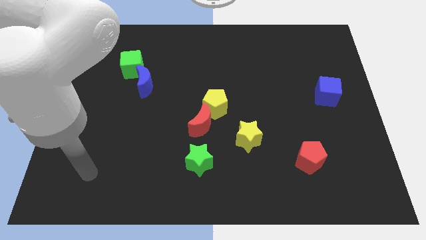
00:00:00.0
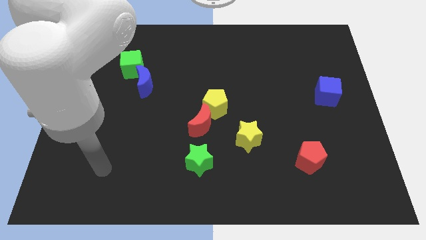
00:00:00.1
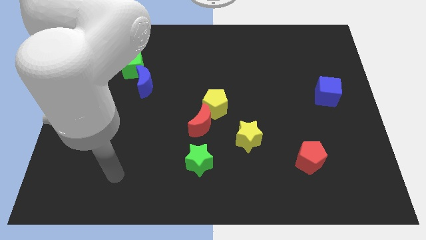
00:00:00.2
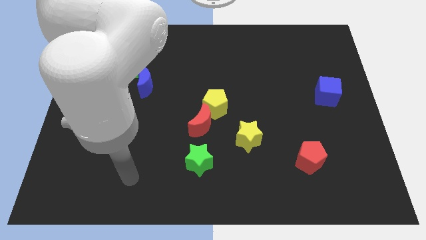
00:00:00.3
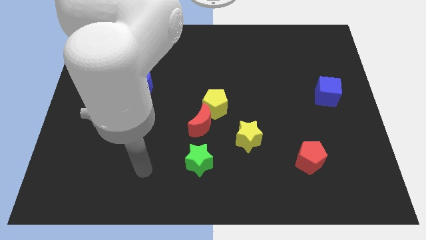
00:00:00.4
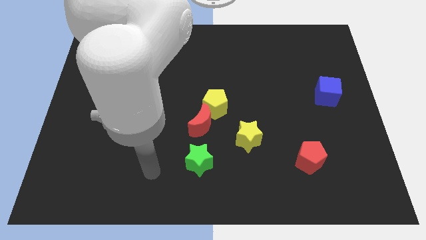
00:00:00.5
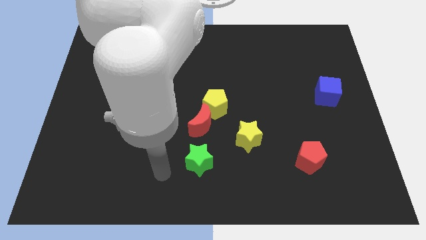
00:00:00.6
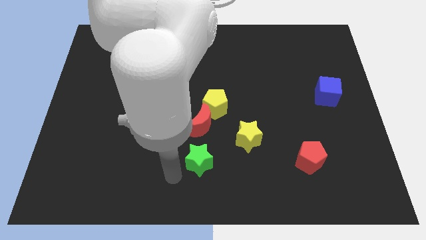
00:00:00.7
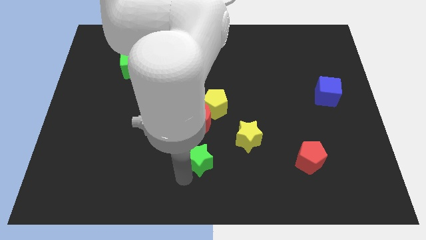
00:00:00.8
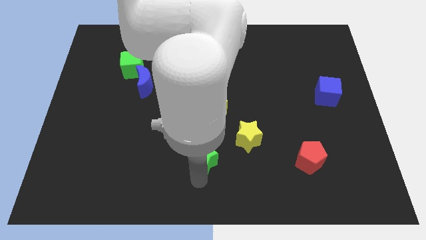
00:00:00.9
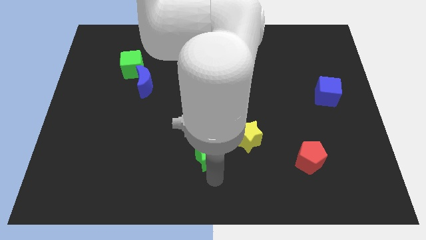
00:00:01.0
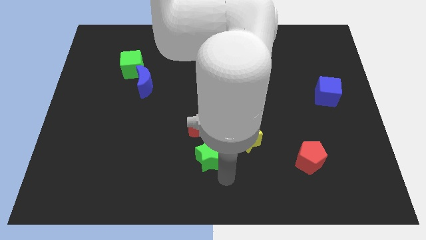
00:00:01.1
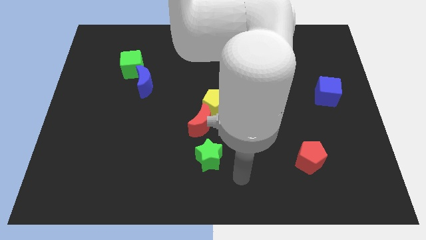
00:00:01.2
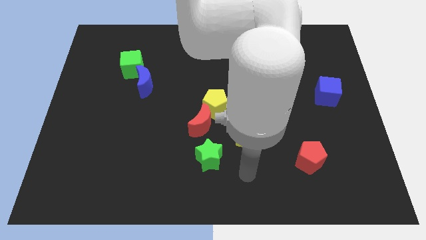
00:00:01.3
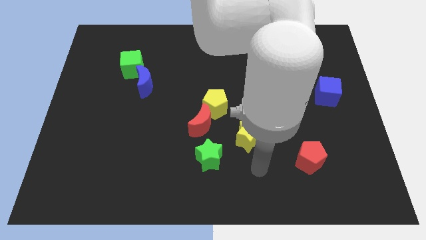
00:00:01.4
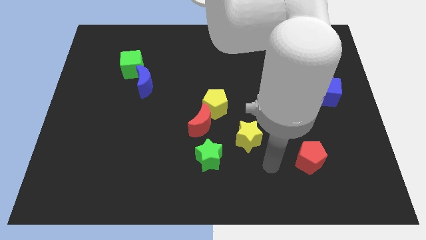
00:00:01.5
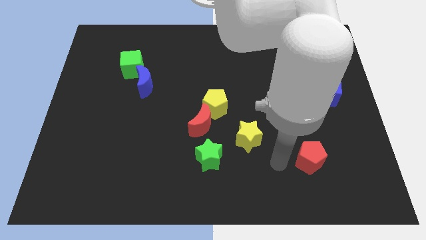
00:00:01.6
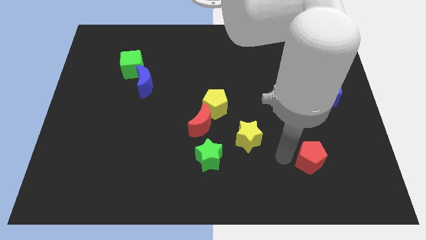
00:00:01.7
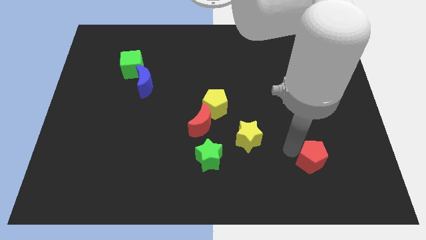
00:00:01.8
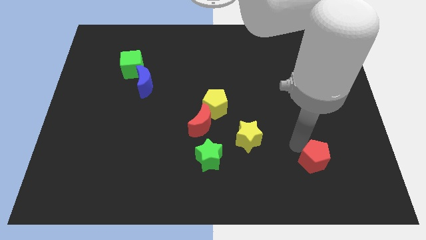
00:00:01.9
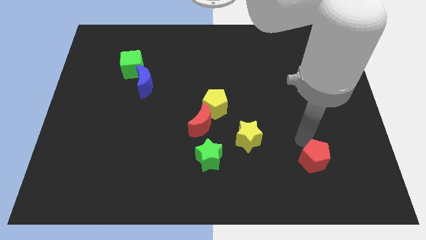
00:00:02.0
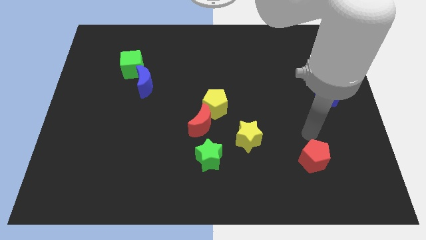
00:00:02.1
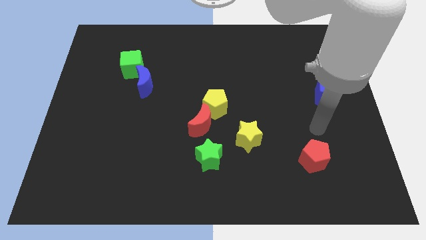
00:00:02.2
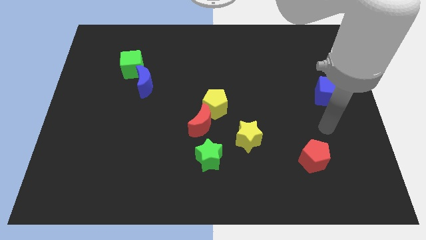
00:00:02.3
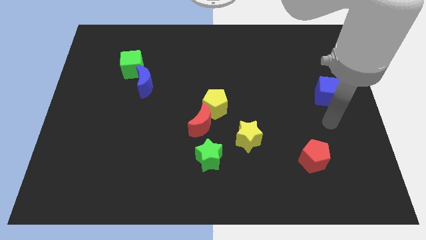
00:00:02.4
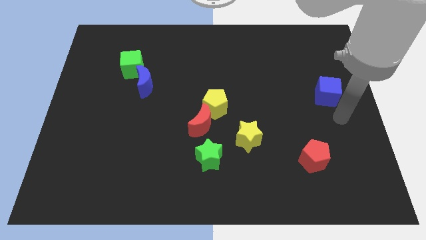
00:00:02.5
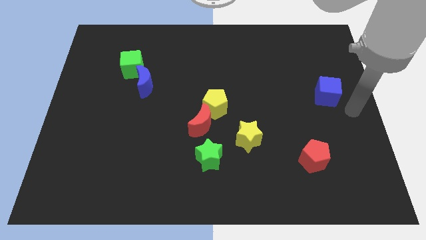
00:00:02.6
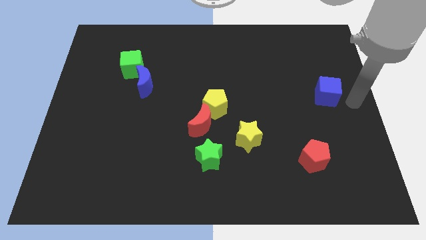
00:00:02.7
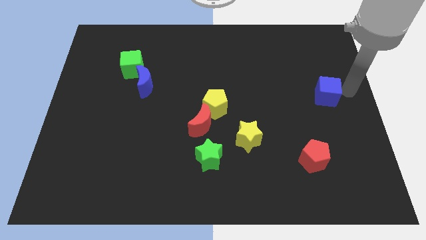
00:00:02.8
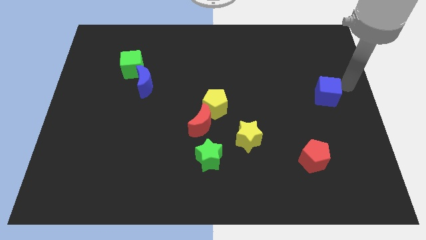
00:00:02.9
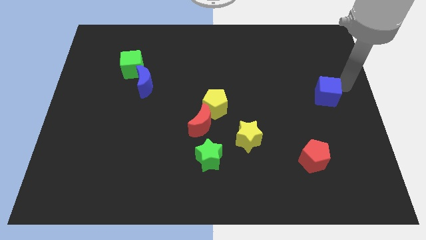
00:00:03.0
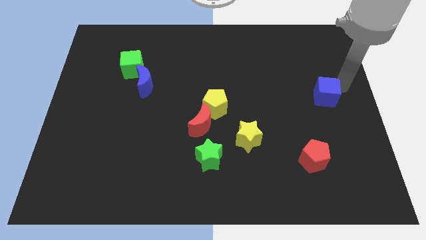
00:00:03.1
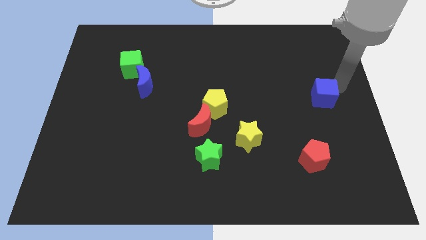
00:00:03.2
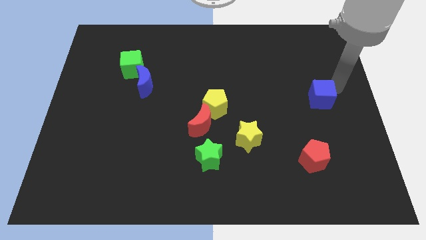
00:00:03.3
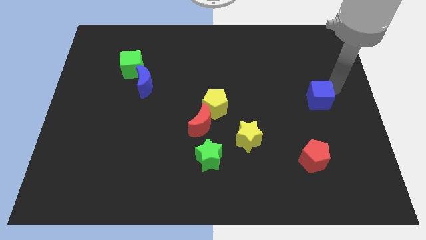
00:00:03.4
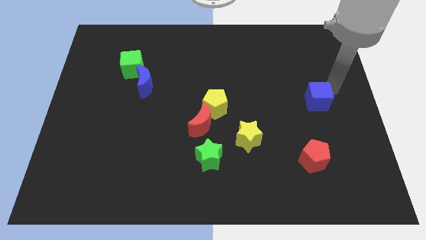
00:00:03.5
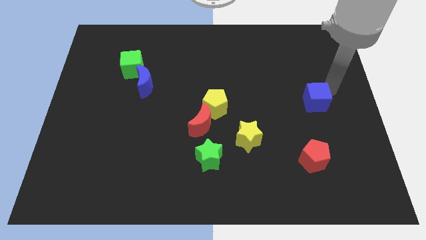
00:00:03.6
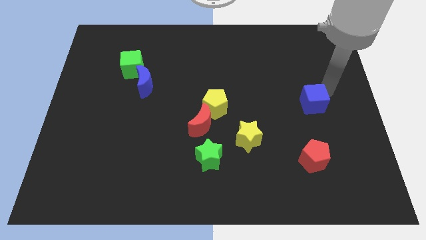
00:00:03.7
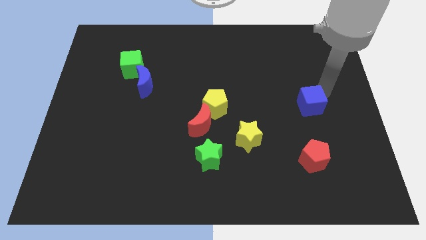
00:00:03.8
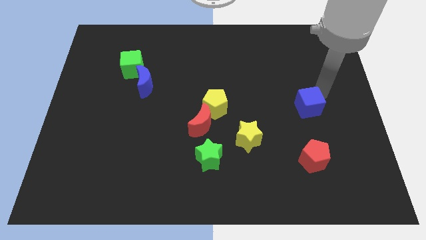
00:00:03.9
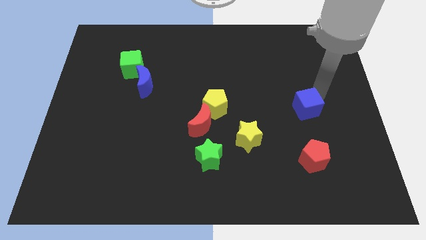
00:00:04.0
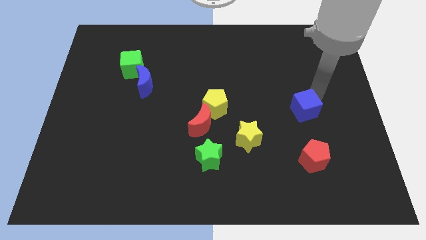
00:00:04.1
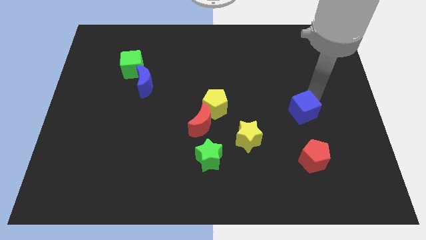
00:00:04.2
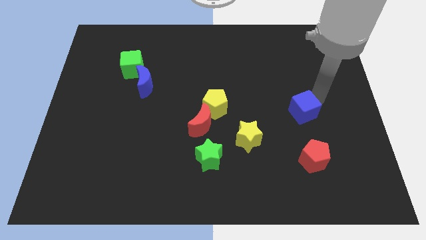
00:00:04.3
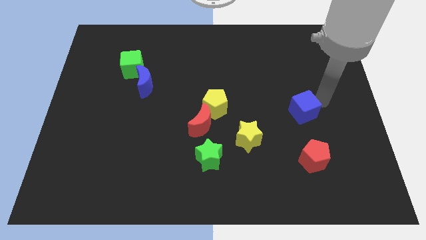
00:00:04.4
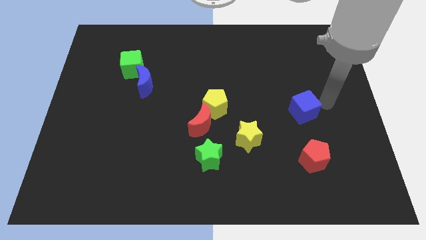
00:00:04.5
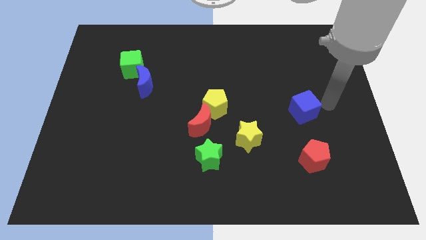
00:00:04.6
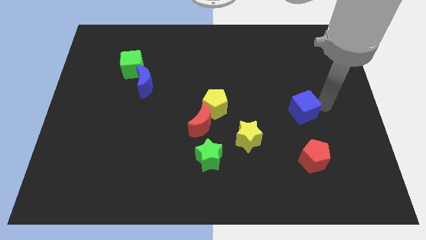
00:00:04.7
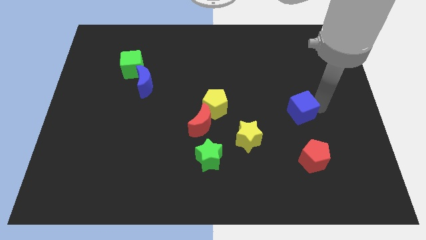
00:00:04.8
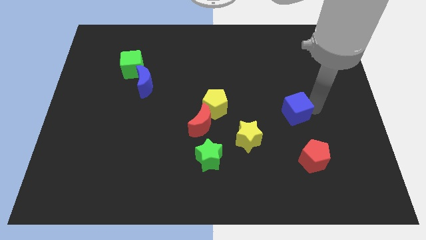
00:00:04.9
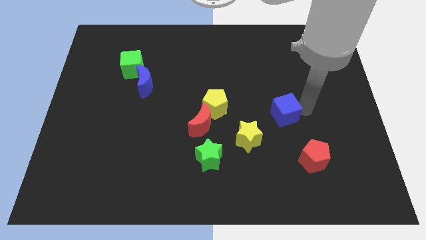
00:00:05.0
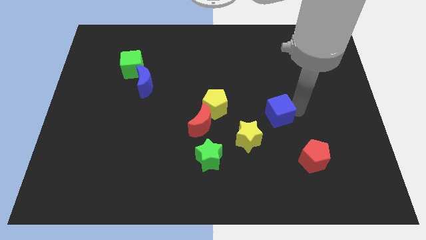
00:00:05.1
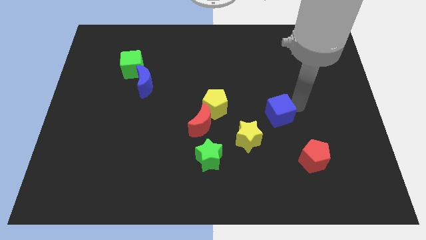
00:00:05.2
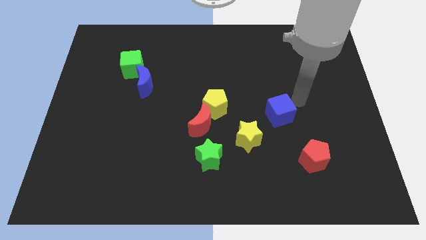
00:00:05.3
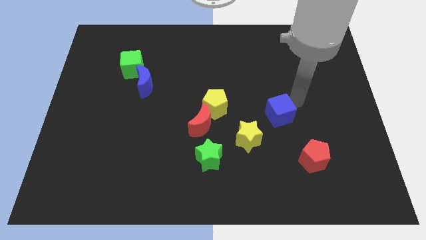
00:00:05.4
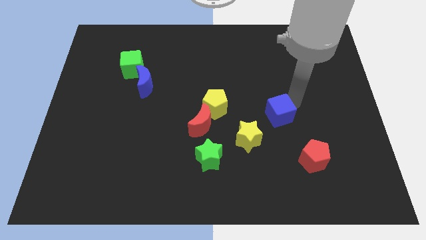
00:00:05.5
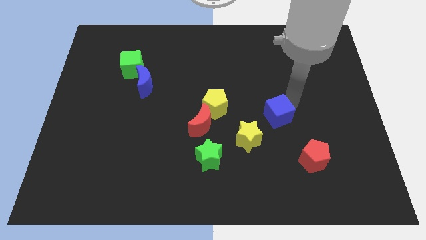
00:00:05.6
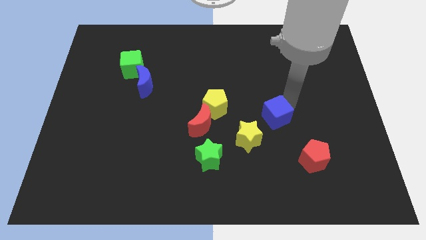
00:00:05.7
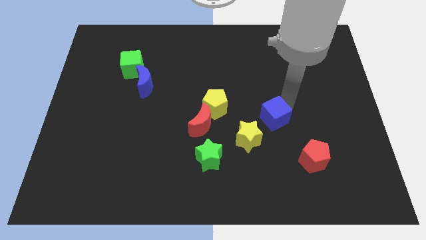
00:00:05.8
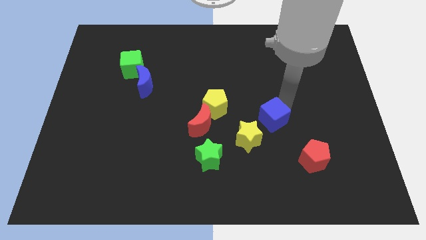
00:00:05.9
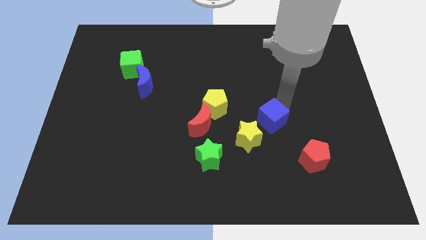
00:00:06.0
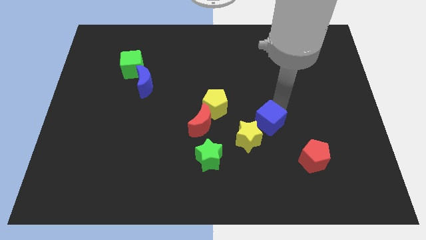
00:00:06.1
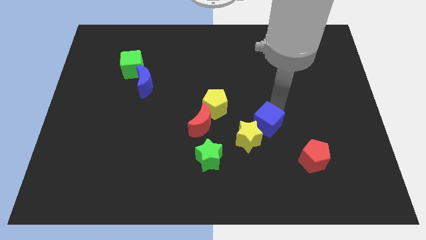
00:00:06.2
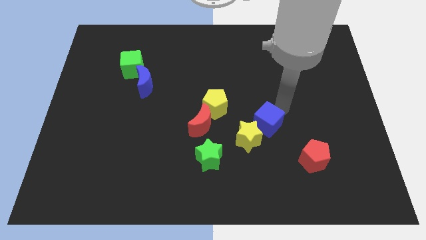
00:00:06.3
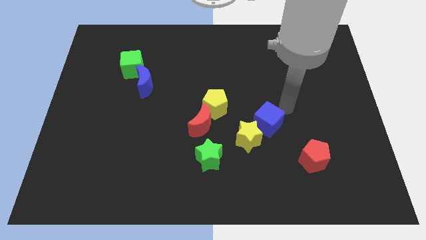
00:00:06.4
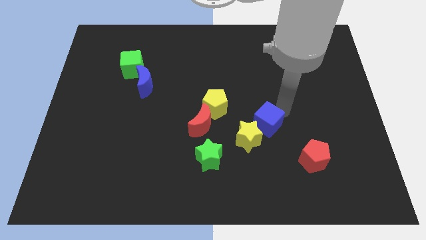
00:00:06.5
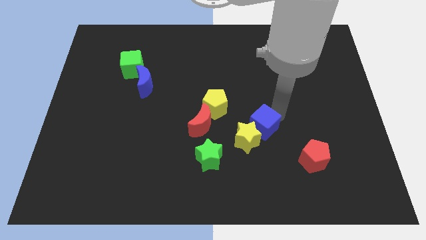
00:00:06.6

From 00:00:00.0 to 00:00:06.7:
slide the blue cube towards the yellow star
